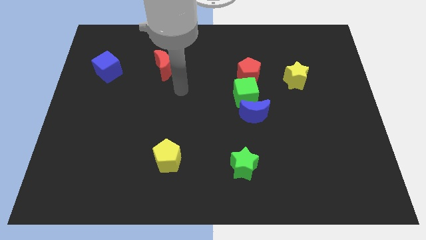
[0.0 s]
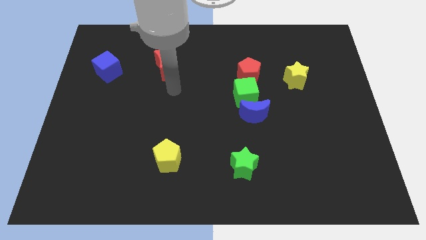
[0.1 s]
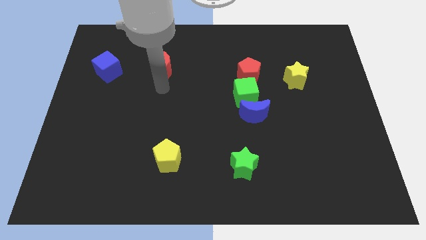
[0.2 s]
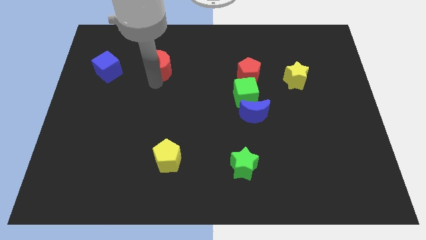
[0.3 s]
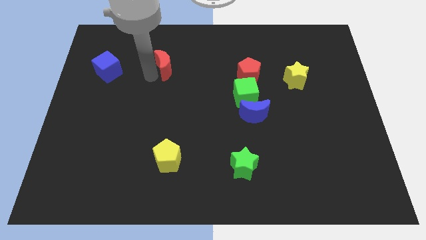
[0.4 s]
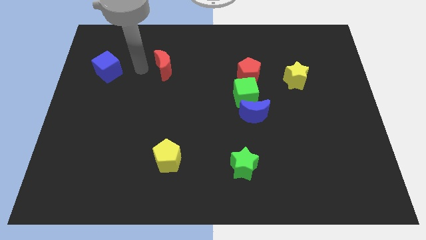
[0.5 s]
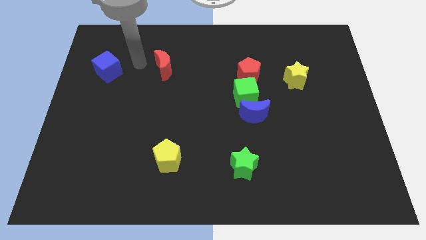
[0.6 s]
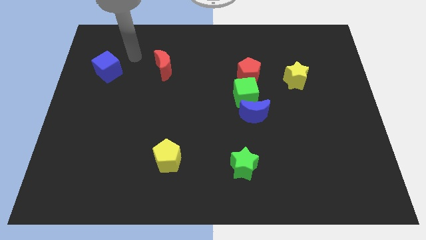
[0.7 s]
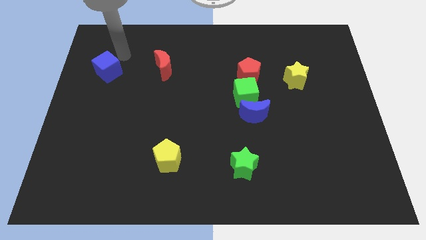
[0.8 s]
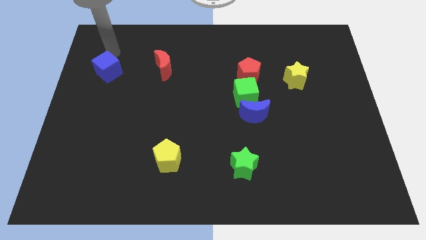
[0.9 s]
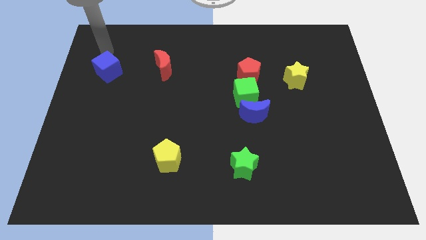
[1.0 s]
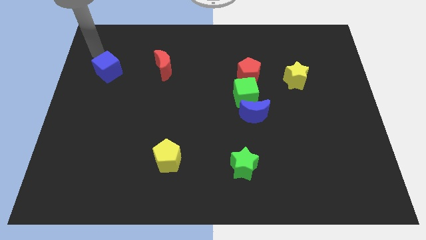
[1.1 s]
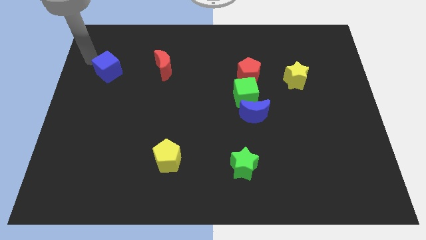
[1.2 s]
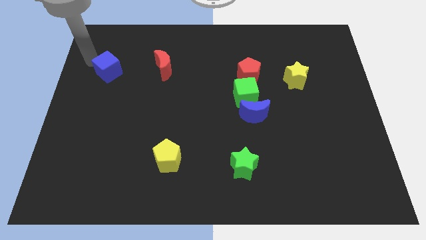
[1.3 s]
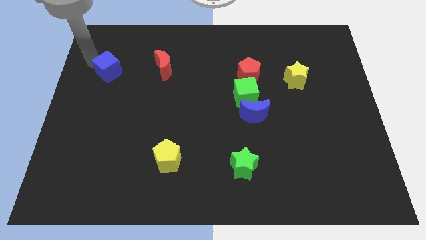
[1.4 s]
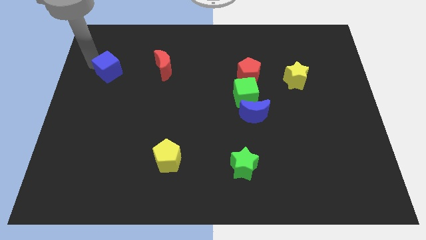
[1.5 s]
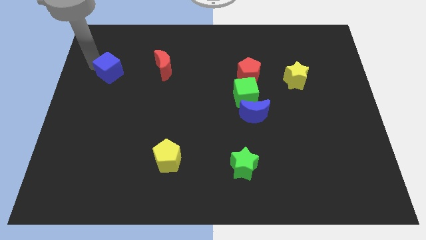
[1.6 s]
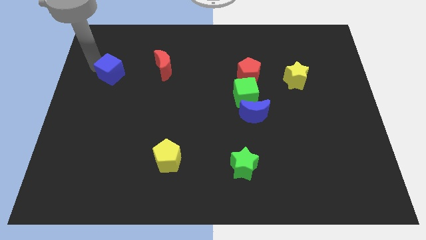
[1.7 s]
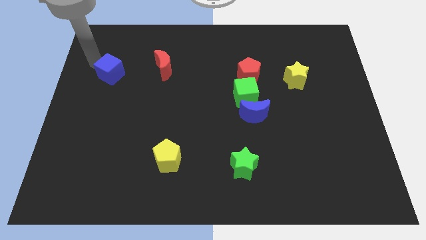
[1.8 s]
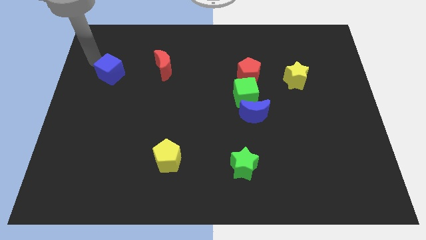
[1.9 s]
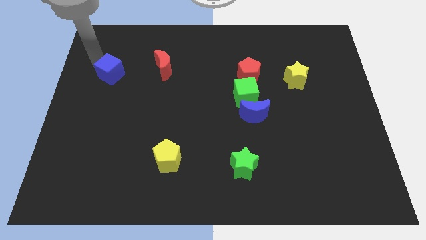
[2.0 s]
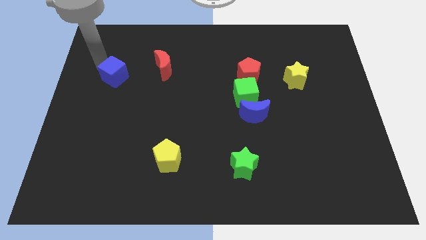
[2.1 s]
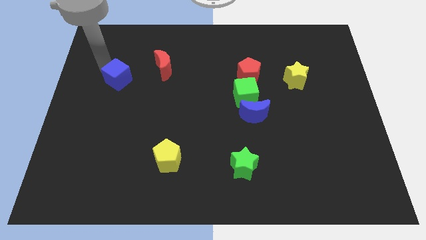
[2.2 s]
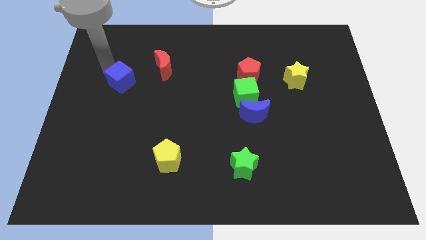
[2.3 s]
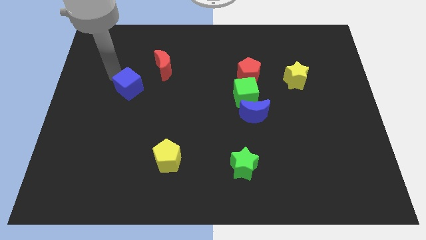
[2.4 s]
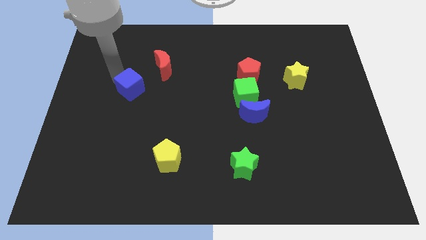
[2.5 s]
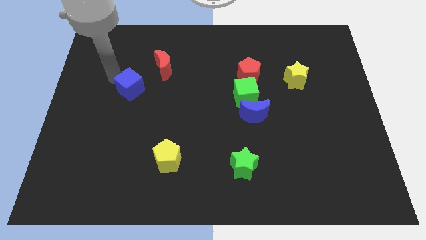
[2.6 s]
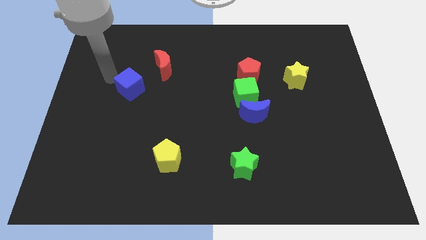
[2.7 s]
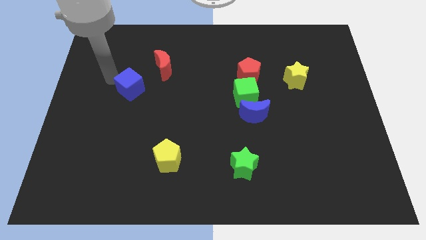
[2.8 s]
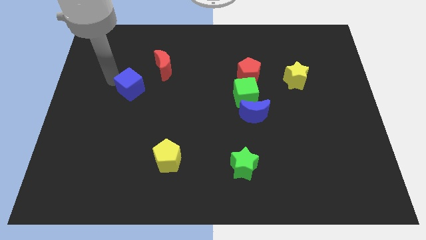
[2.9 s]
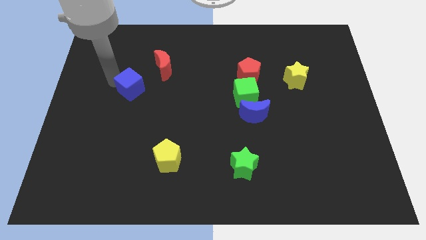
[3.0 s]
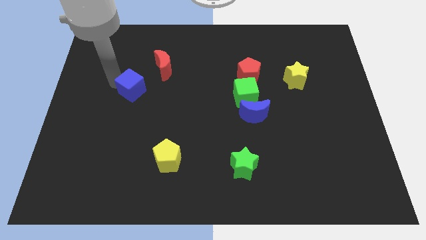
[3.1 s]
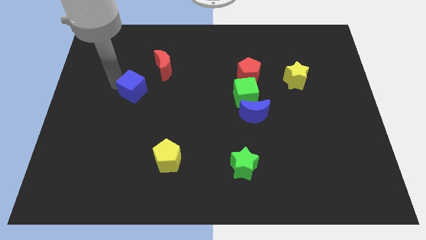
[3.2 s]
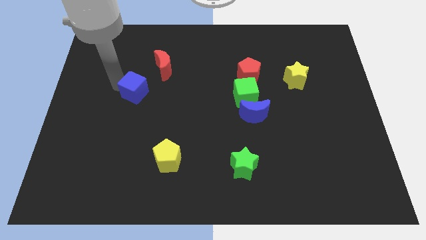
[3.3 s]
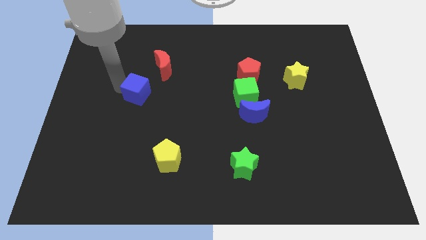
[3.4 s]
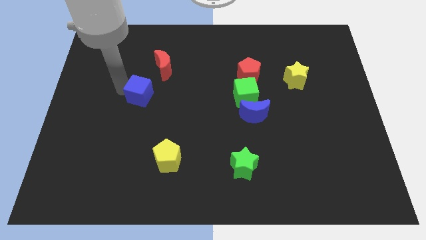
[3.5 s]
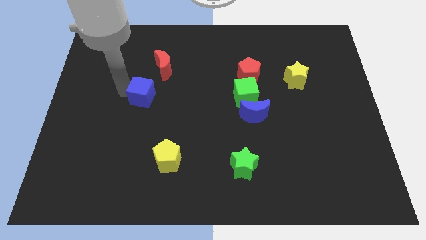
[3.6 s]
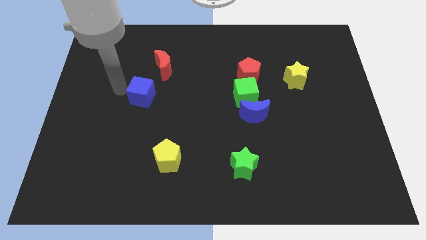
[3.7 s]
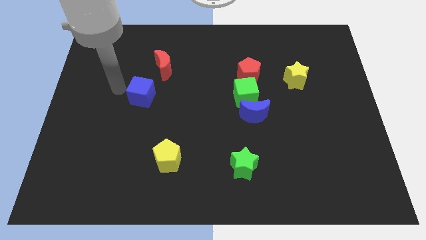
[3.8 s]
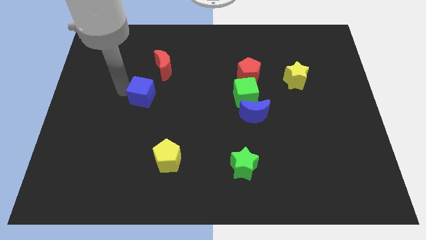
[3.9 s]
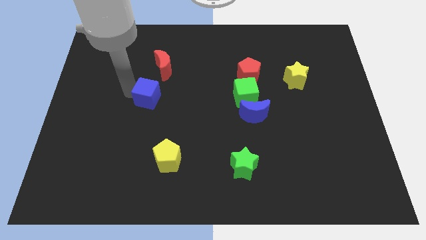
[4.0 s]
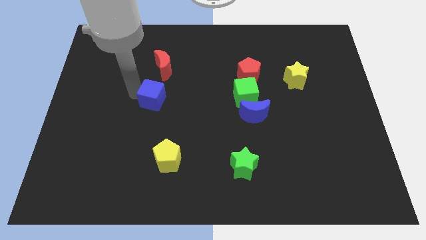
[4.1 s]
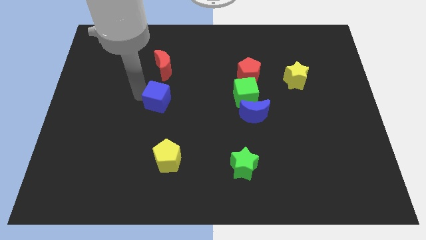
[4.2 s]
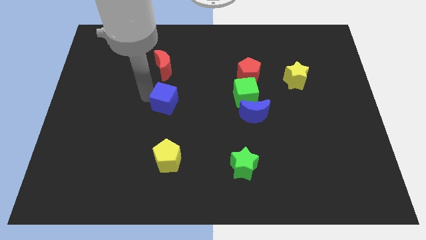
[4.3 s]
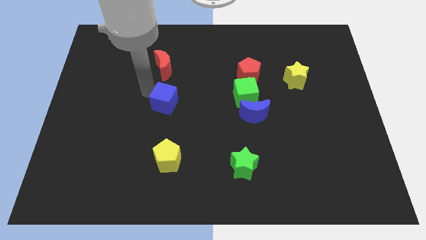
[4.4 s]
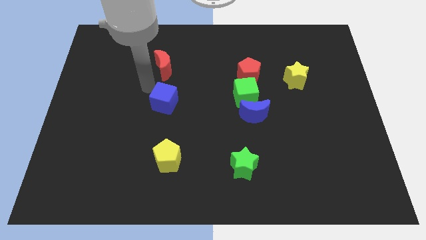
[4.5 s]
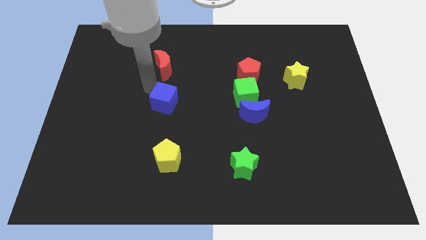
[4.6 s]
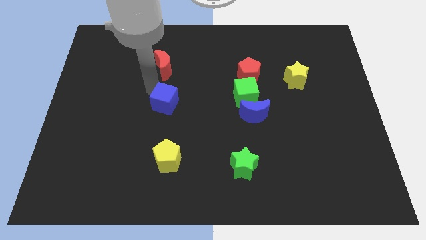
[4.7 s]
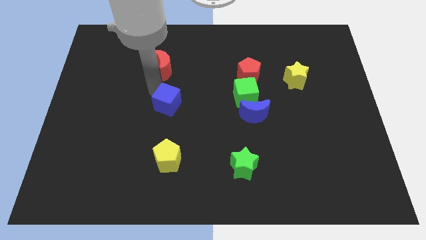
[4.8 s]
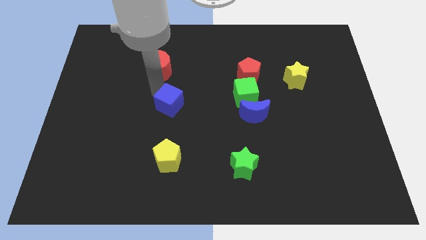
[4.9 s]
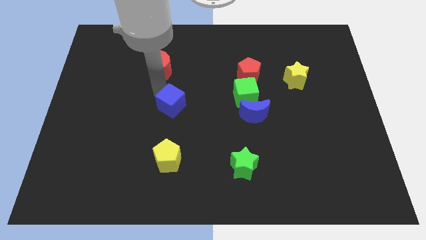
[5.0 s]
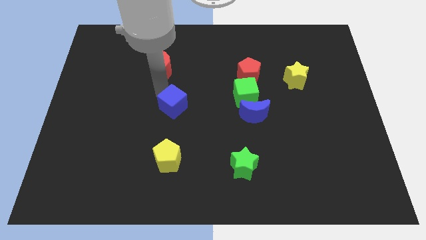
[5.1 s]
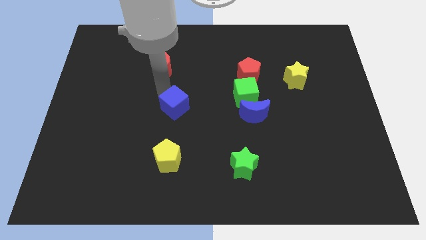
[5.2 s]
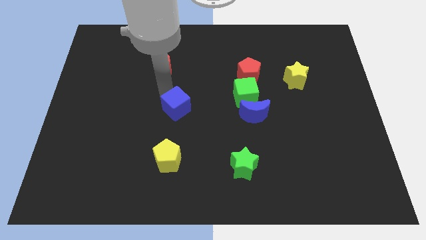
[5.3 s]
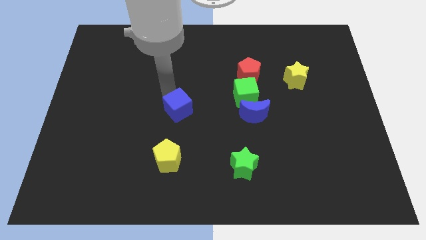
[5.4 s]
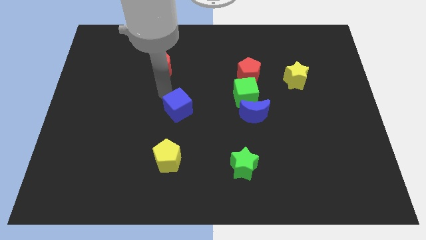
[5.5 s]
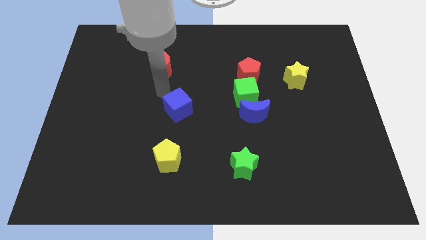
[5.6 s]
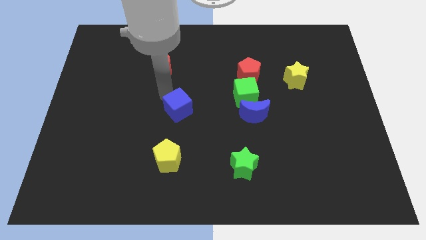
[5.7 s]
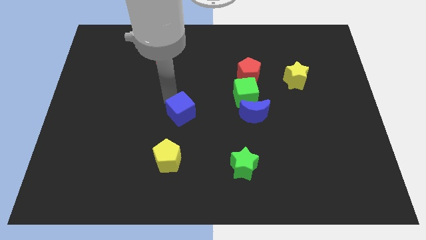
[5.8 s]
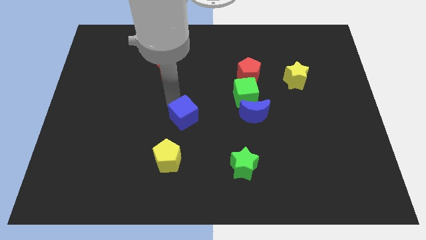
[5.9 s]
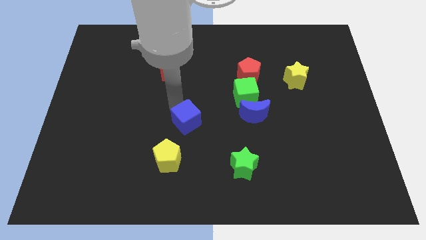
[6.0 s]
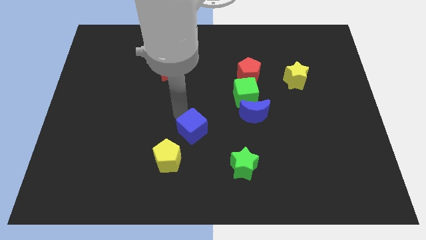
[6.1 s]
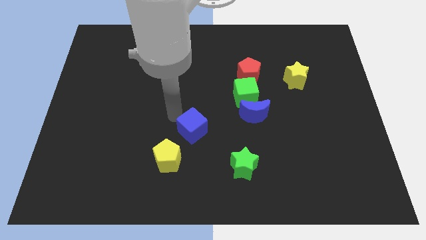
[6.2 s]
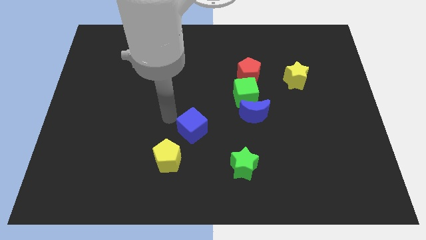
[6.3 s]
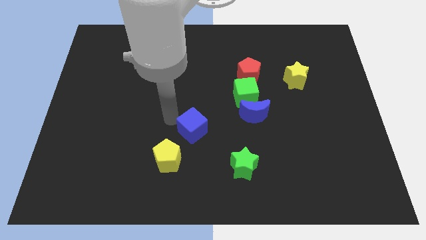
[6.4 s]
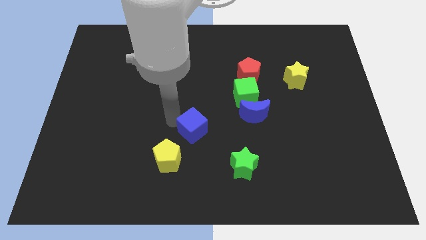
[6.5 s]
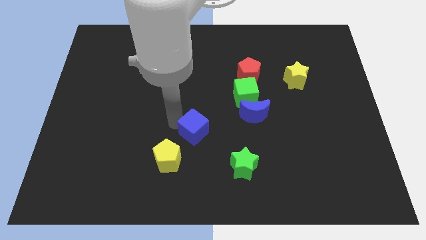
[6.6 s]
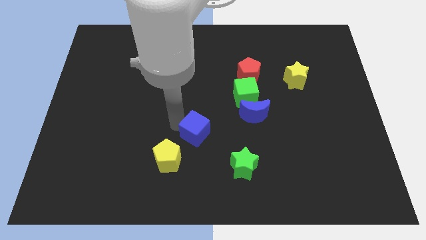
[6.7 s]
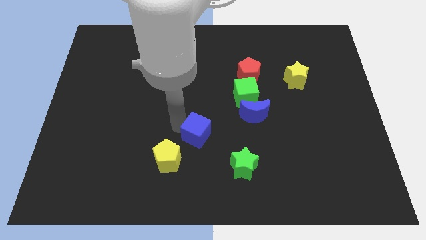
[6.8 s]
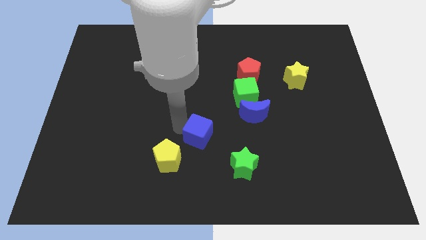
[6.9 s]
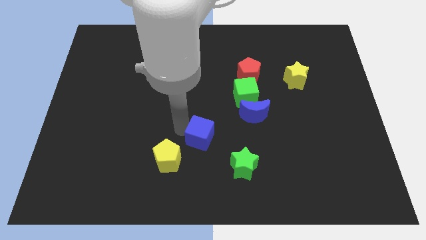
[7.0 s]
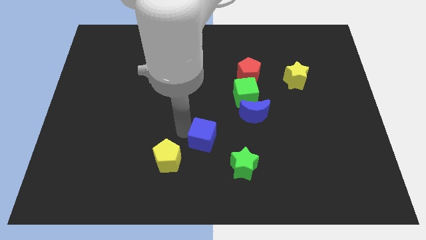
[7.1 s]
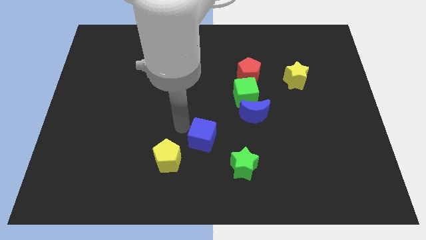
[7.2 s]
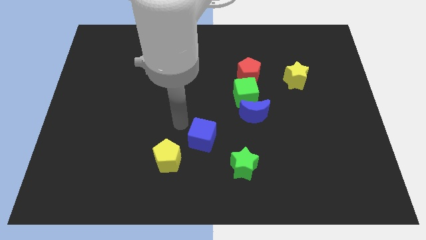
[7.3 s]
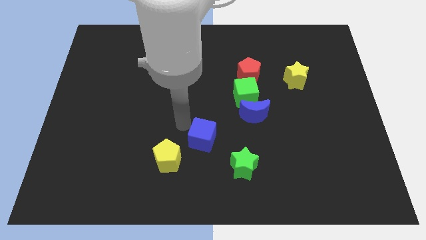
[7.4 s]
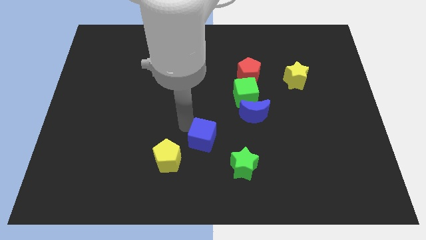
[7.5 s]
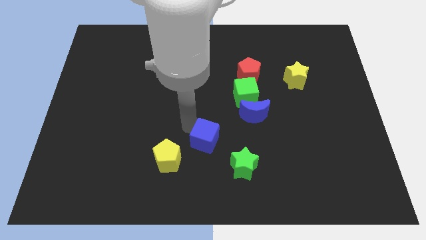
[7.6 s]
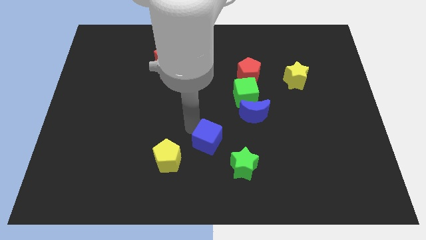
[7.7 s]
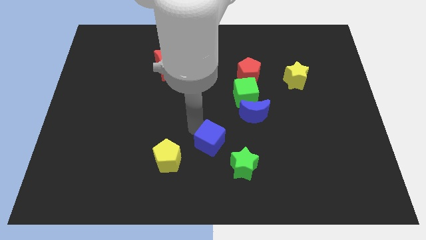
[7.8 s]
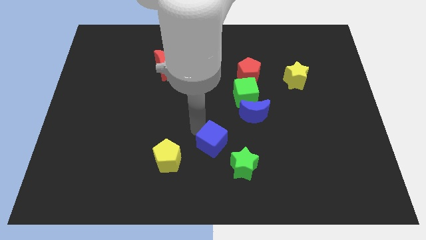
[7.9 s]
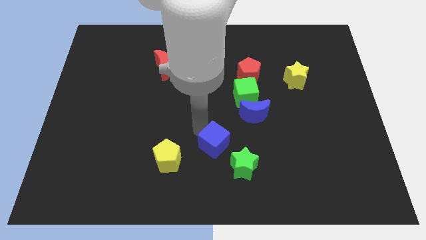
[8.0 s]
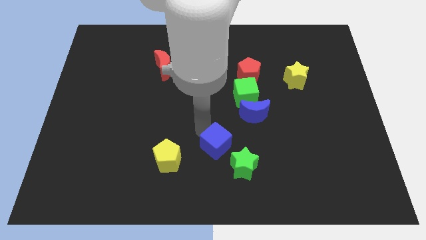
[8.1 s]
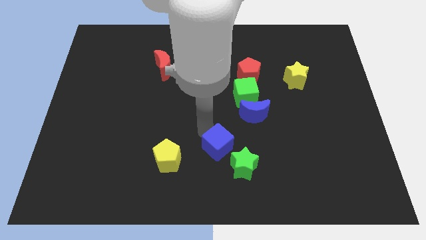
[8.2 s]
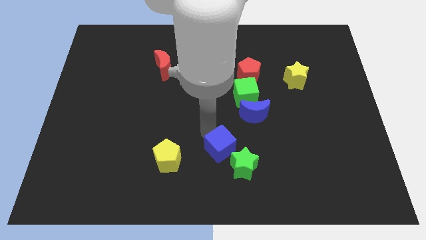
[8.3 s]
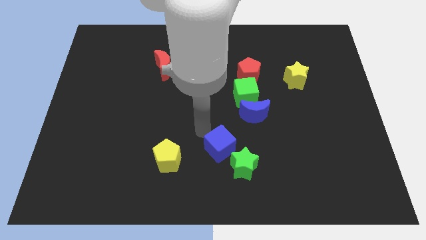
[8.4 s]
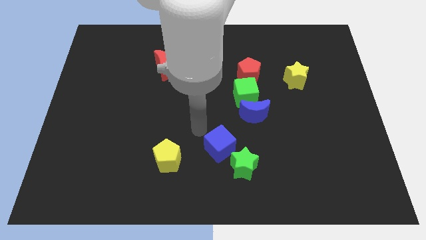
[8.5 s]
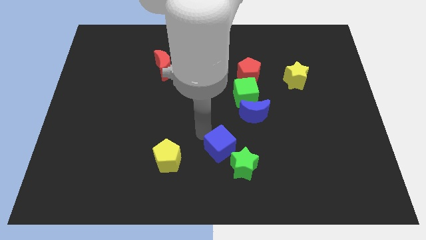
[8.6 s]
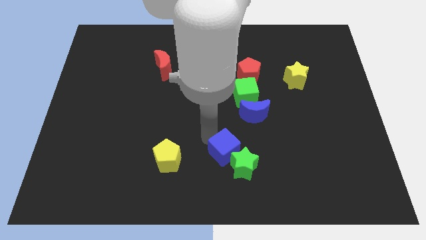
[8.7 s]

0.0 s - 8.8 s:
push the blue cube towards the green star
